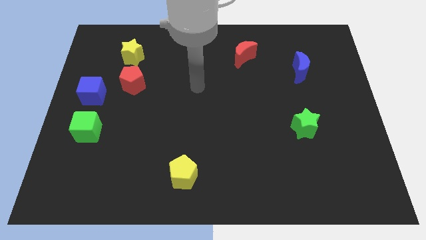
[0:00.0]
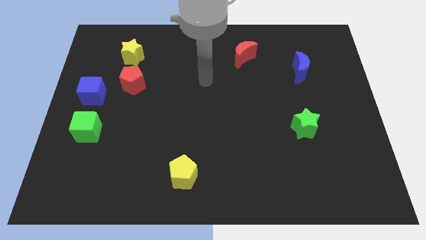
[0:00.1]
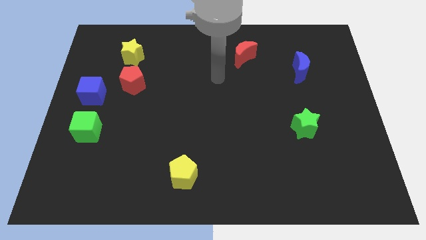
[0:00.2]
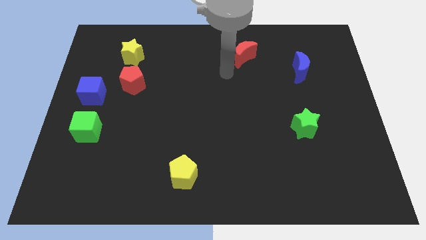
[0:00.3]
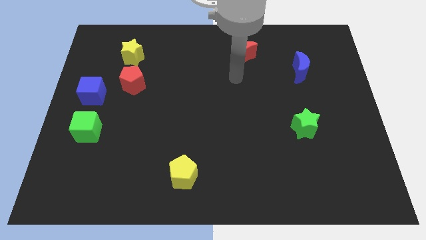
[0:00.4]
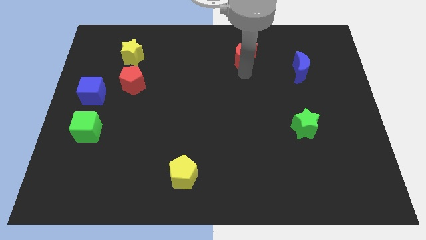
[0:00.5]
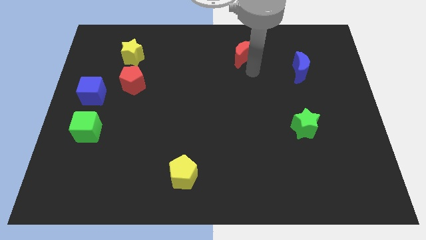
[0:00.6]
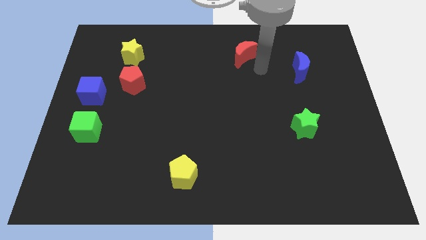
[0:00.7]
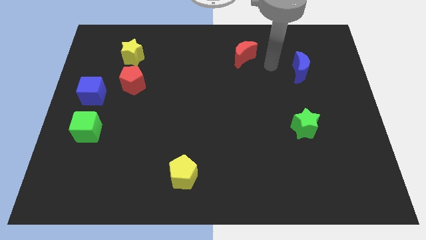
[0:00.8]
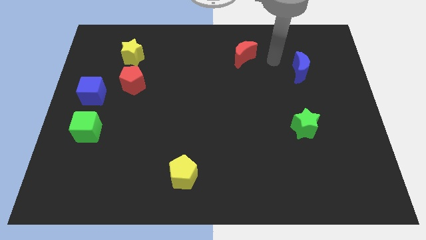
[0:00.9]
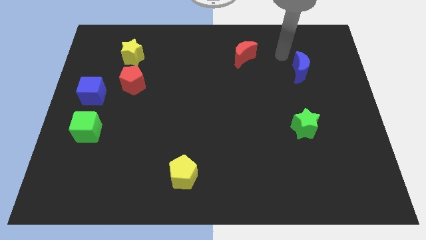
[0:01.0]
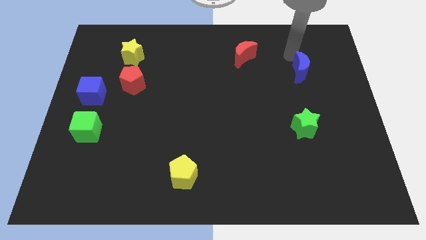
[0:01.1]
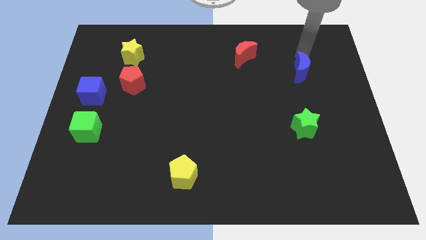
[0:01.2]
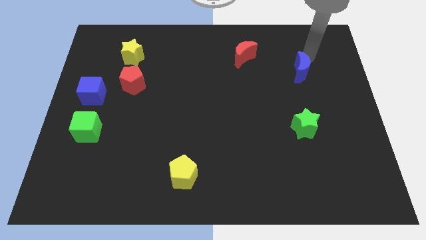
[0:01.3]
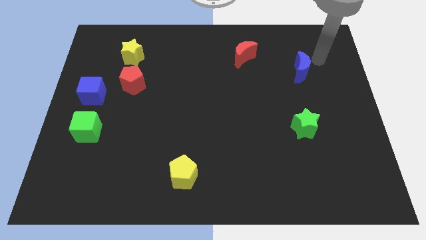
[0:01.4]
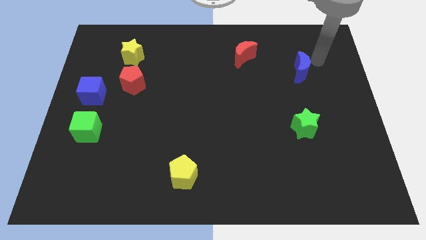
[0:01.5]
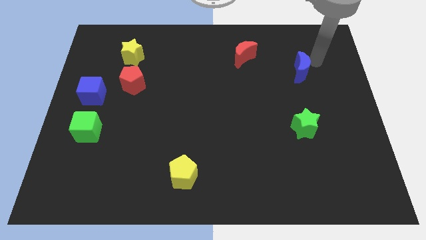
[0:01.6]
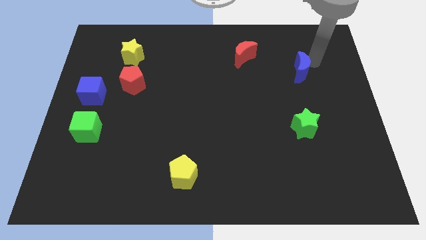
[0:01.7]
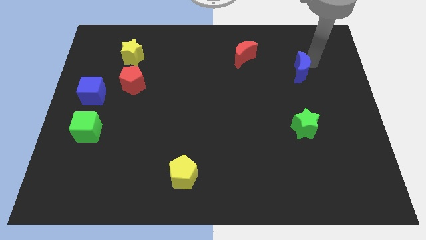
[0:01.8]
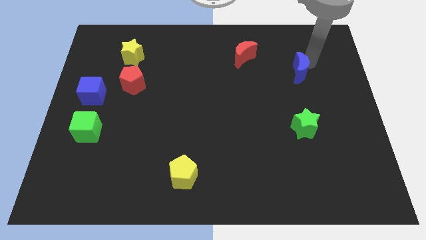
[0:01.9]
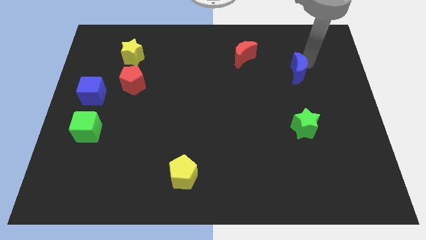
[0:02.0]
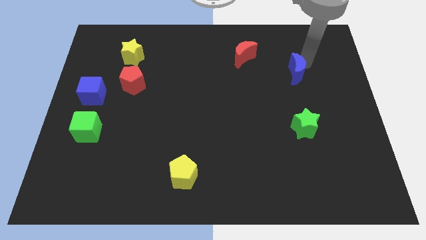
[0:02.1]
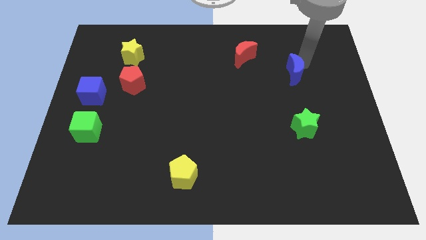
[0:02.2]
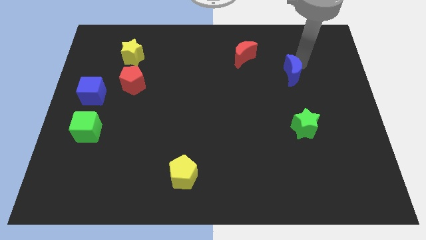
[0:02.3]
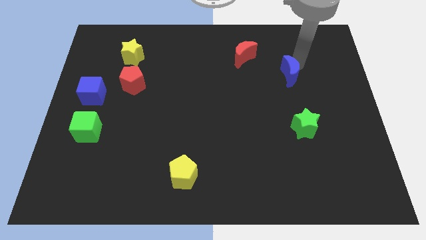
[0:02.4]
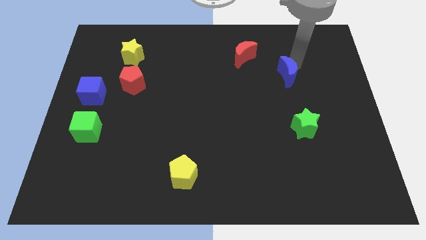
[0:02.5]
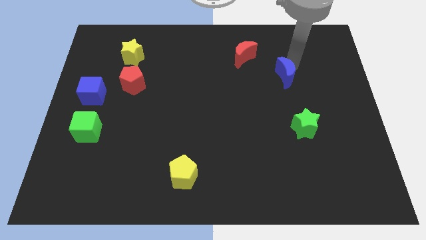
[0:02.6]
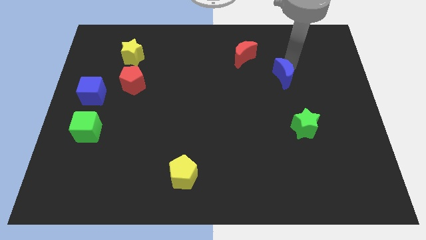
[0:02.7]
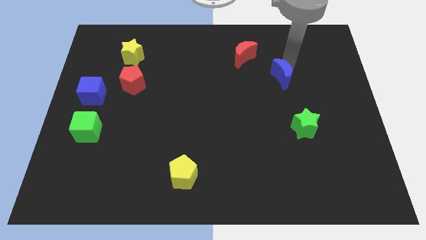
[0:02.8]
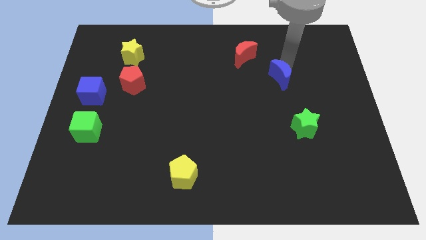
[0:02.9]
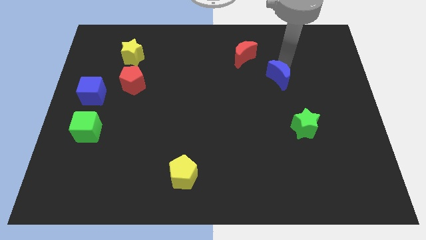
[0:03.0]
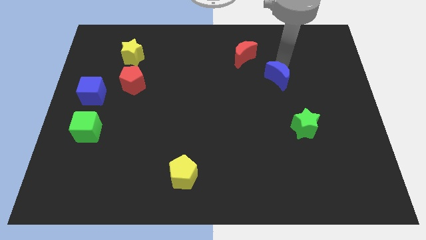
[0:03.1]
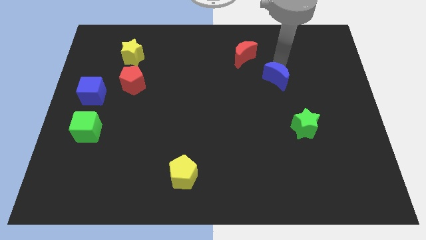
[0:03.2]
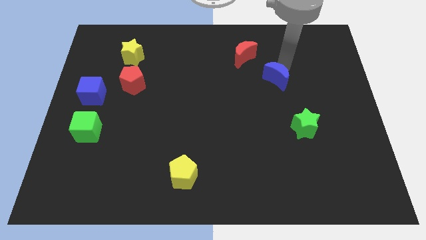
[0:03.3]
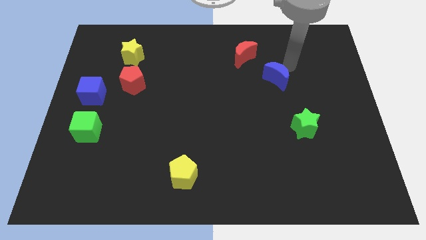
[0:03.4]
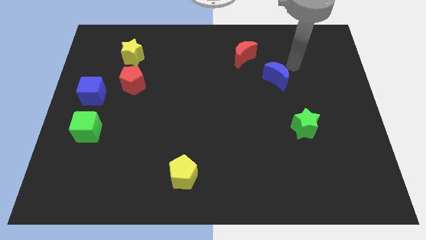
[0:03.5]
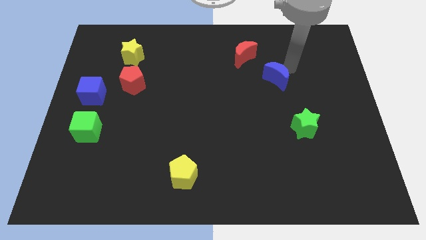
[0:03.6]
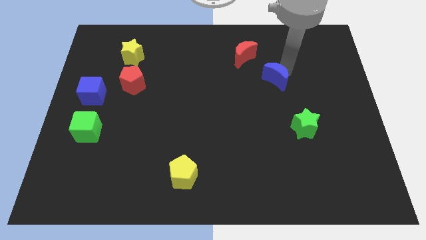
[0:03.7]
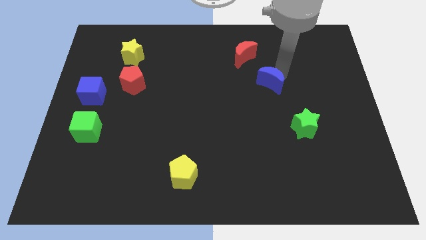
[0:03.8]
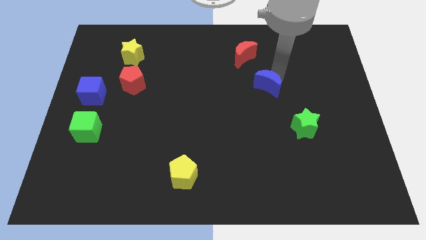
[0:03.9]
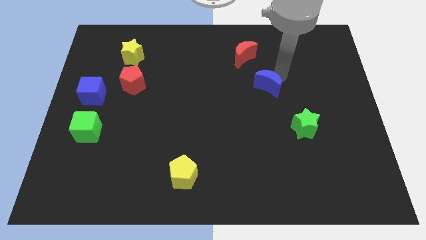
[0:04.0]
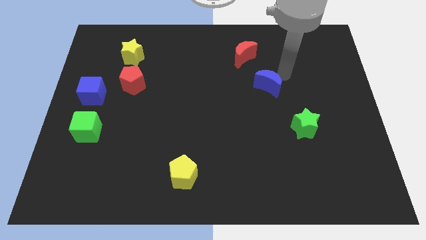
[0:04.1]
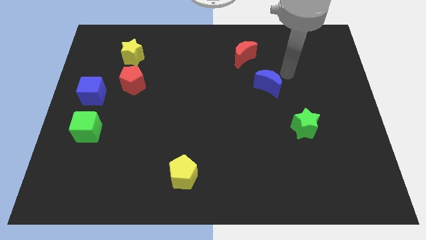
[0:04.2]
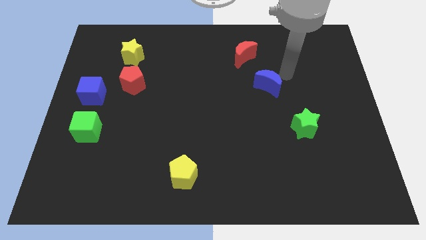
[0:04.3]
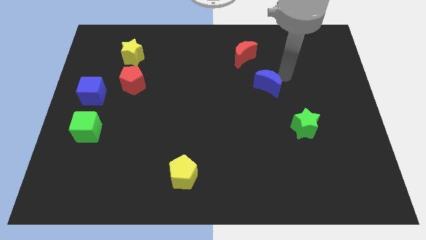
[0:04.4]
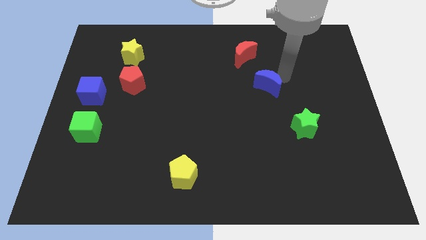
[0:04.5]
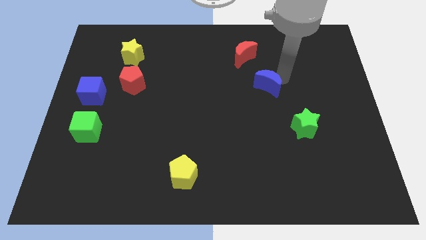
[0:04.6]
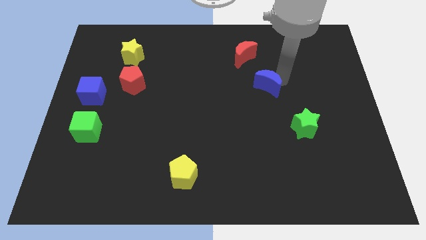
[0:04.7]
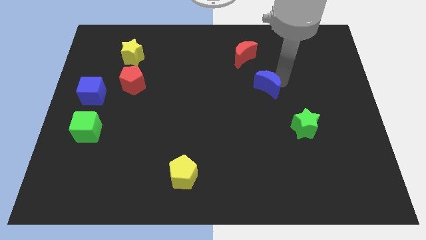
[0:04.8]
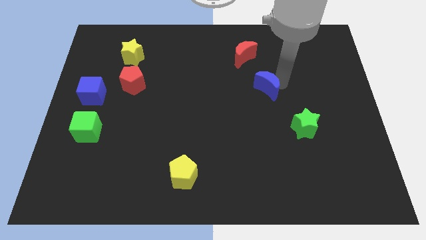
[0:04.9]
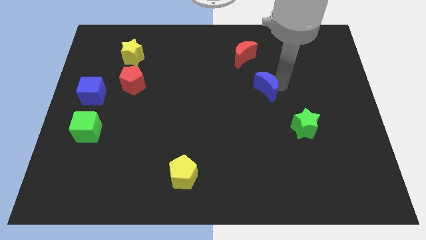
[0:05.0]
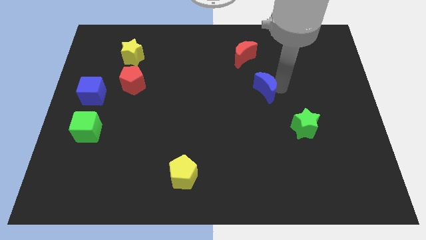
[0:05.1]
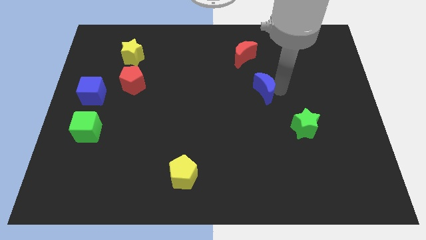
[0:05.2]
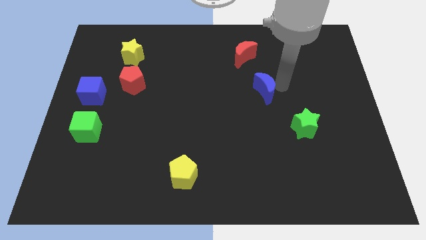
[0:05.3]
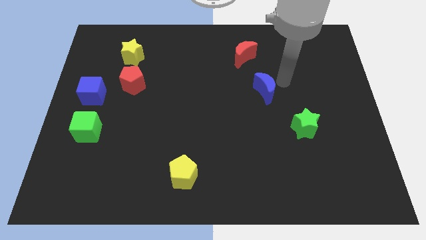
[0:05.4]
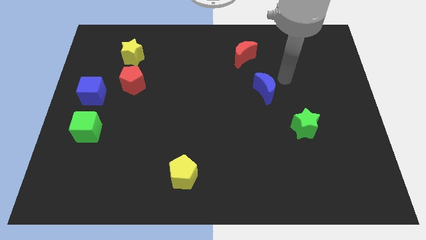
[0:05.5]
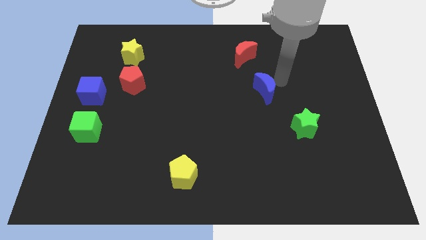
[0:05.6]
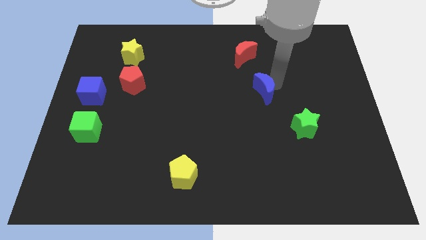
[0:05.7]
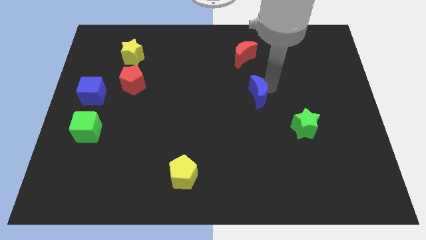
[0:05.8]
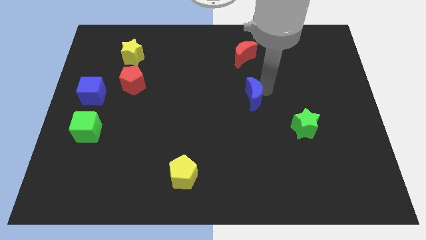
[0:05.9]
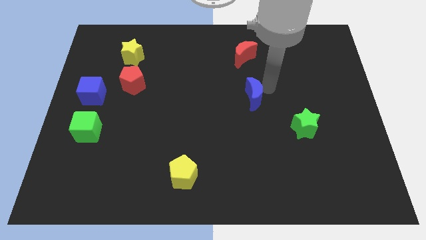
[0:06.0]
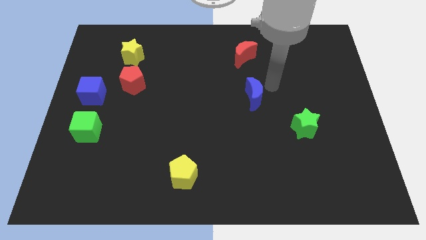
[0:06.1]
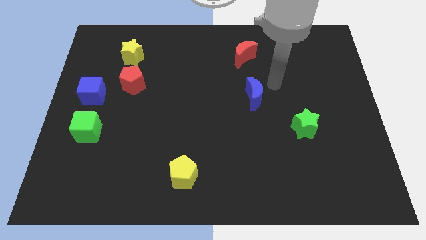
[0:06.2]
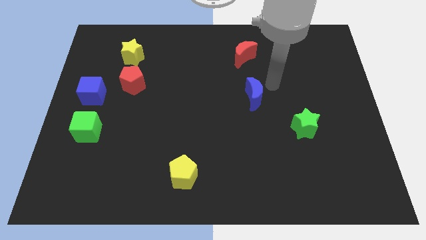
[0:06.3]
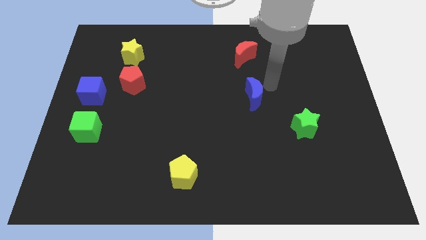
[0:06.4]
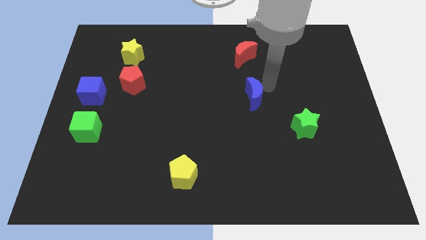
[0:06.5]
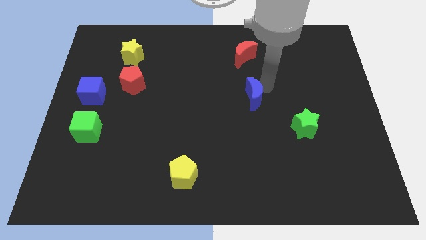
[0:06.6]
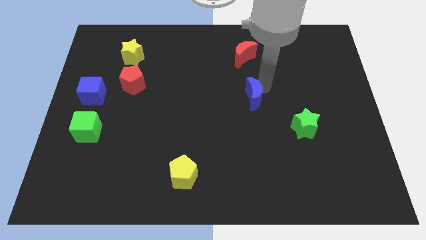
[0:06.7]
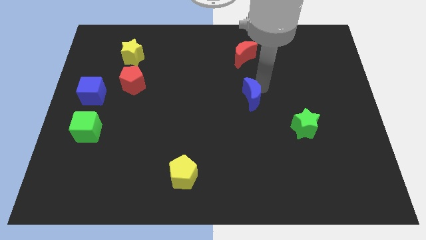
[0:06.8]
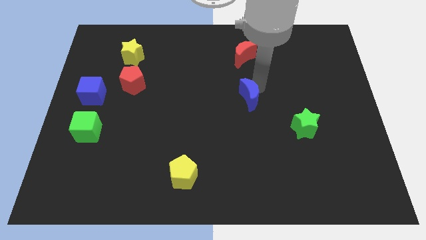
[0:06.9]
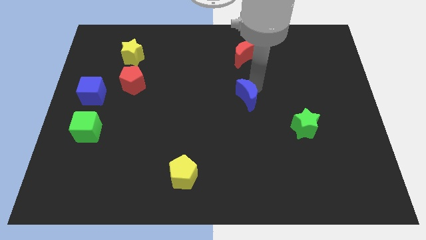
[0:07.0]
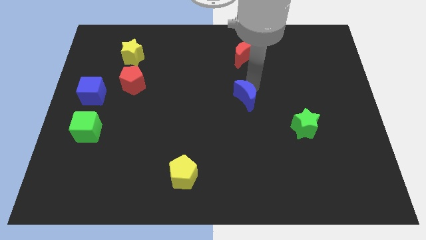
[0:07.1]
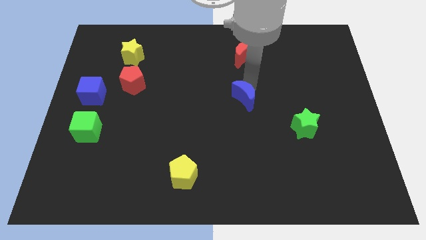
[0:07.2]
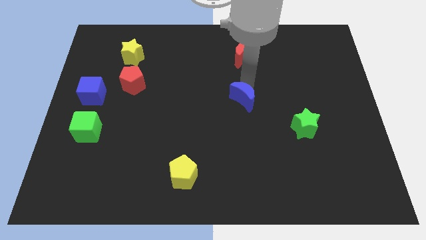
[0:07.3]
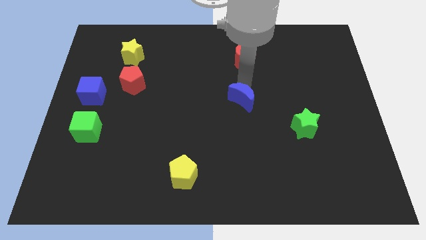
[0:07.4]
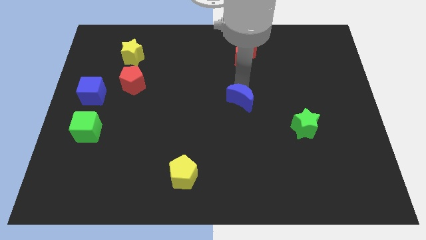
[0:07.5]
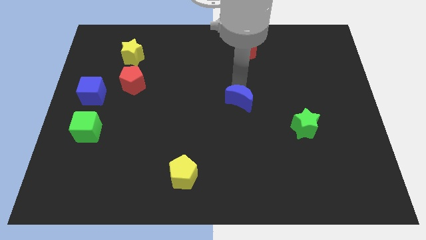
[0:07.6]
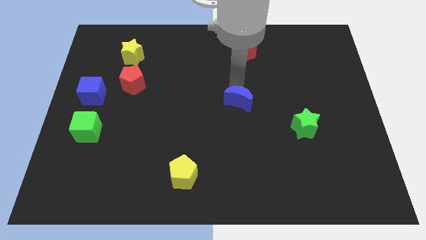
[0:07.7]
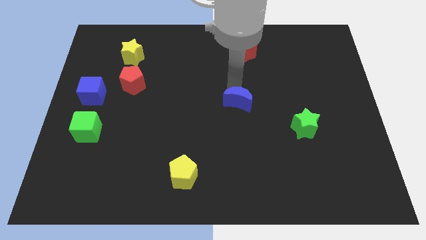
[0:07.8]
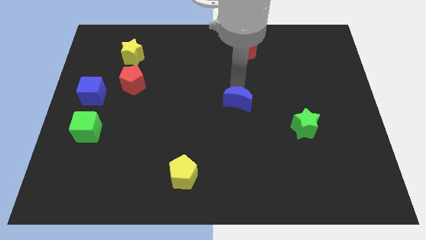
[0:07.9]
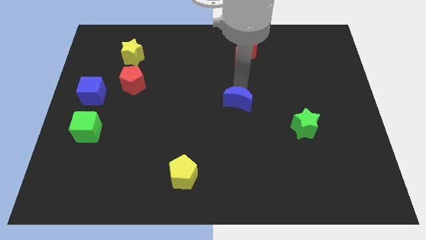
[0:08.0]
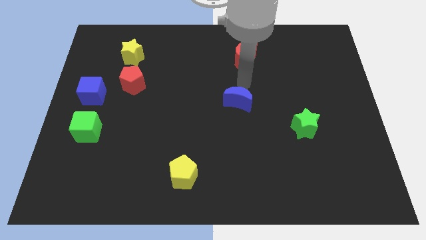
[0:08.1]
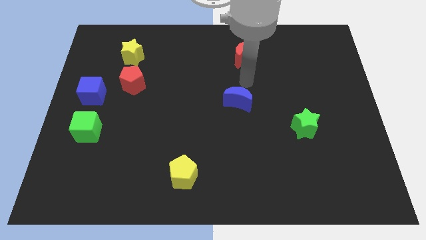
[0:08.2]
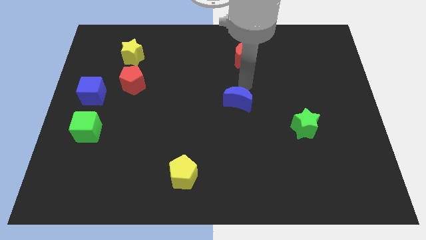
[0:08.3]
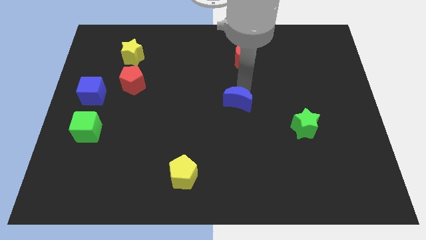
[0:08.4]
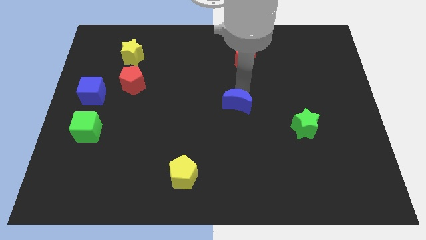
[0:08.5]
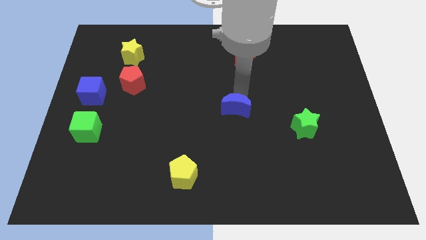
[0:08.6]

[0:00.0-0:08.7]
push the blue moon diagonally downwards and left
